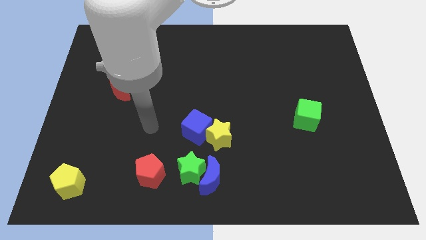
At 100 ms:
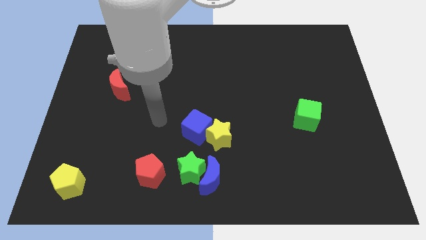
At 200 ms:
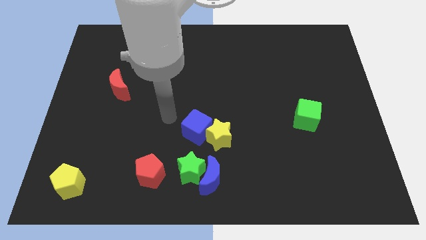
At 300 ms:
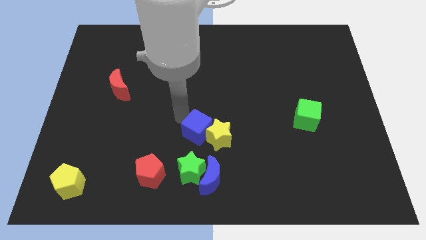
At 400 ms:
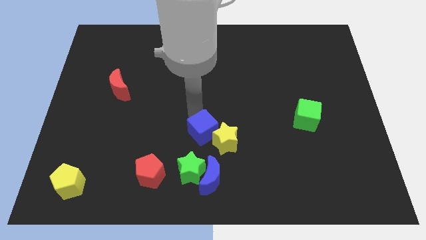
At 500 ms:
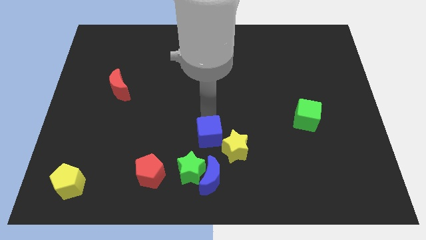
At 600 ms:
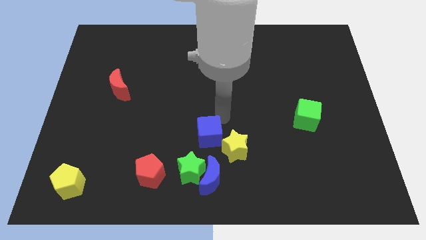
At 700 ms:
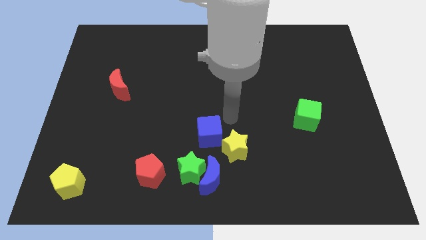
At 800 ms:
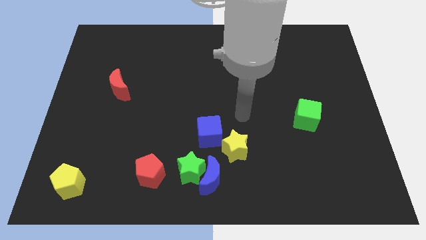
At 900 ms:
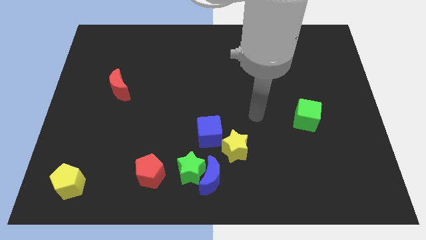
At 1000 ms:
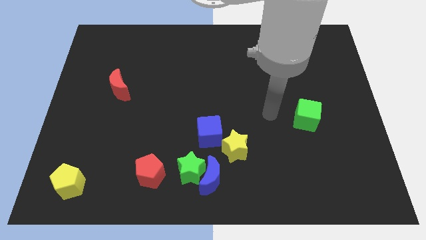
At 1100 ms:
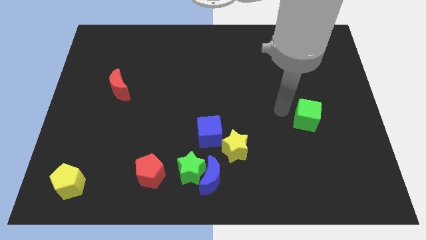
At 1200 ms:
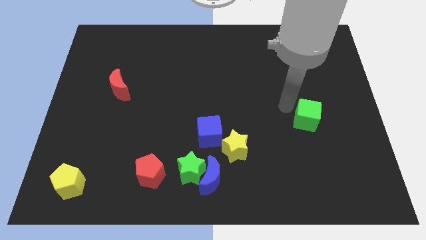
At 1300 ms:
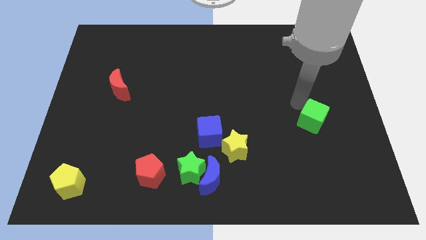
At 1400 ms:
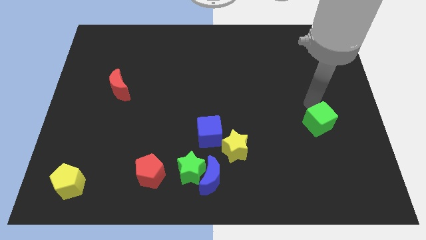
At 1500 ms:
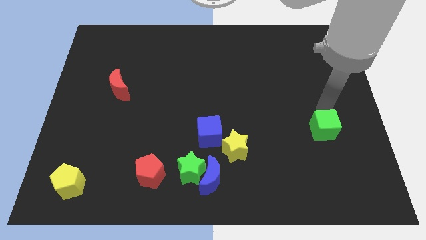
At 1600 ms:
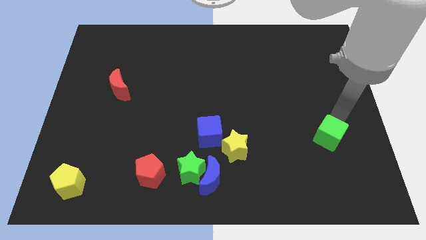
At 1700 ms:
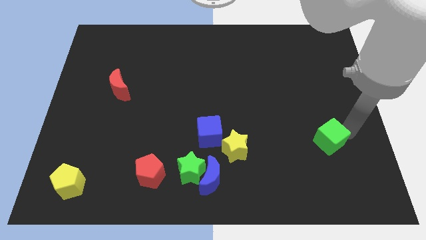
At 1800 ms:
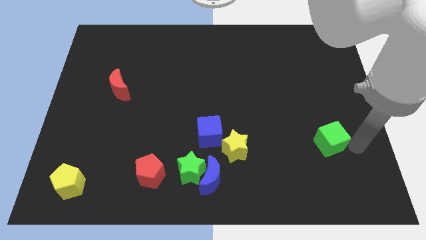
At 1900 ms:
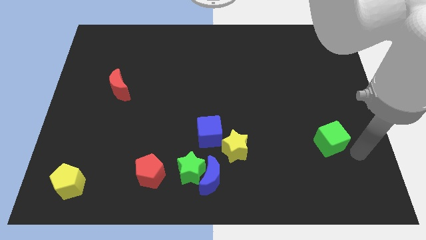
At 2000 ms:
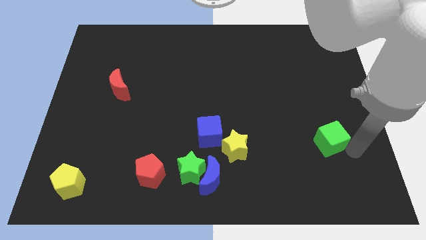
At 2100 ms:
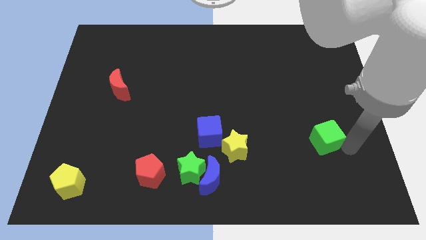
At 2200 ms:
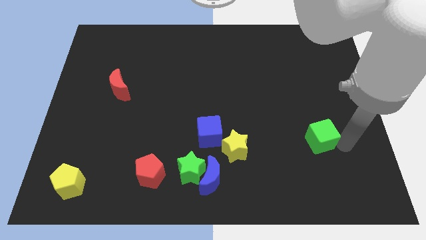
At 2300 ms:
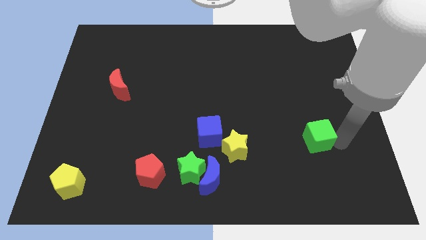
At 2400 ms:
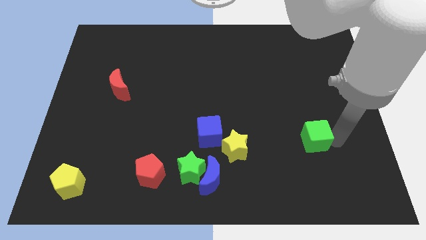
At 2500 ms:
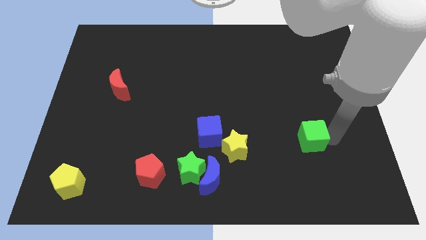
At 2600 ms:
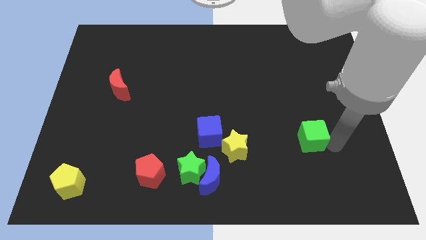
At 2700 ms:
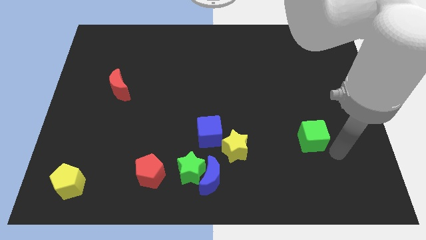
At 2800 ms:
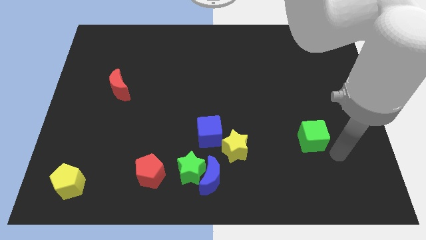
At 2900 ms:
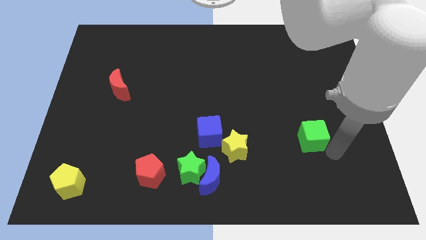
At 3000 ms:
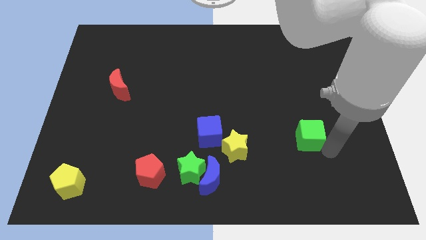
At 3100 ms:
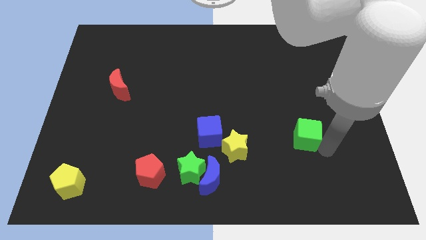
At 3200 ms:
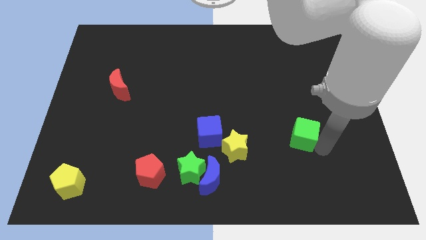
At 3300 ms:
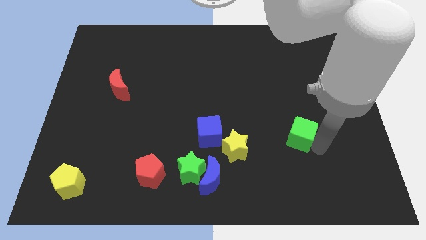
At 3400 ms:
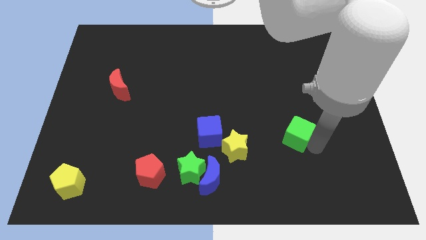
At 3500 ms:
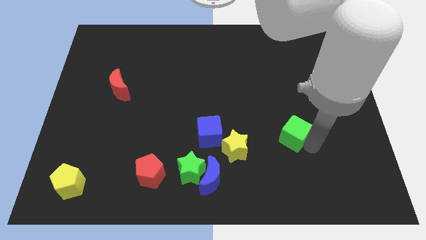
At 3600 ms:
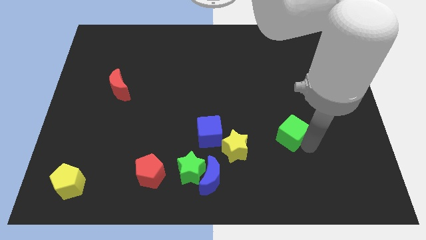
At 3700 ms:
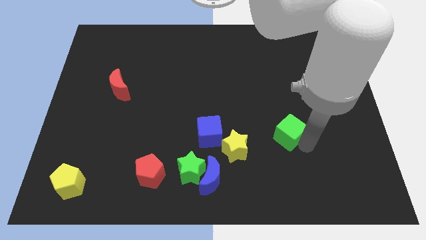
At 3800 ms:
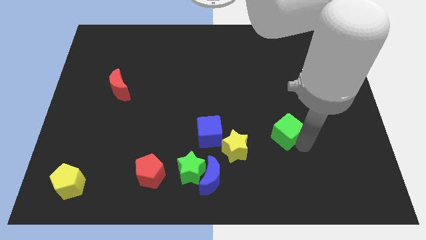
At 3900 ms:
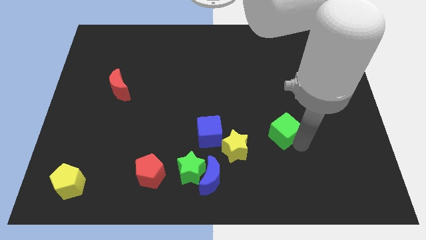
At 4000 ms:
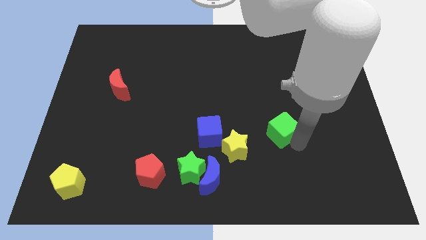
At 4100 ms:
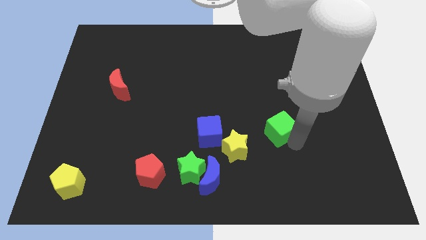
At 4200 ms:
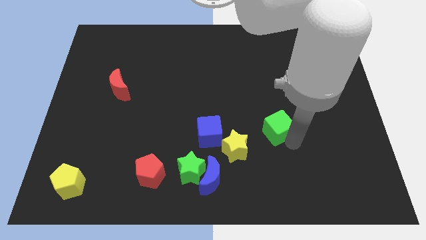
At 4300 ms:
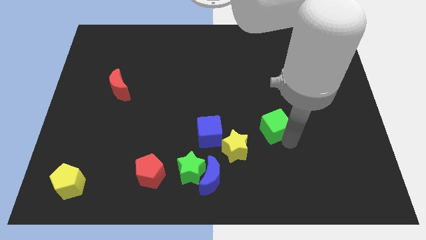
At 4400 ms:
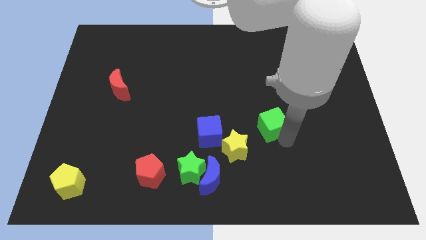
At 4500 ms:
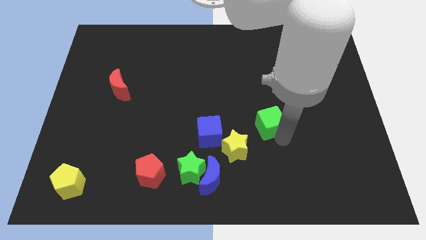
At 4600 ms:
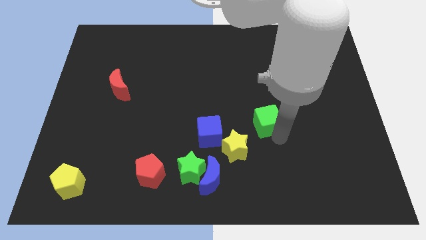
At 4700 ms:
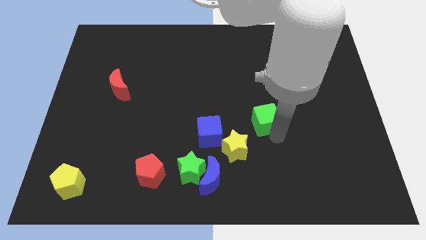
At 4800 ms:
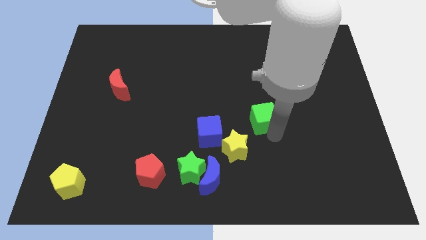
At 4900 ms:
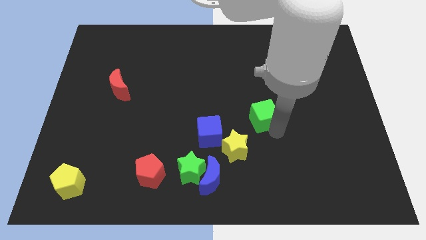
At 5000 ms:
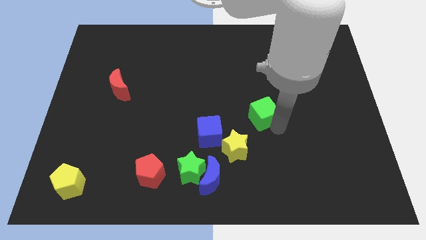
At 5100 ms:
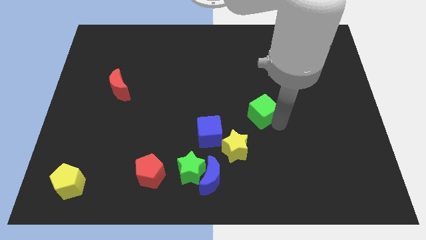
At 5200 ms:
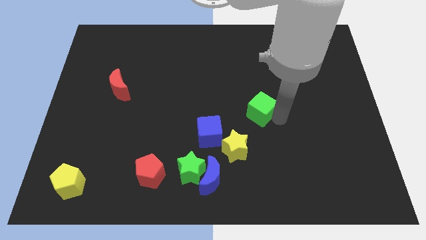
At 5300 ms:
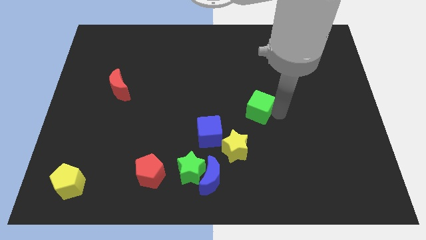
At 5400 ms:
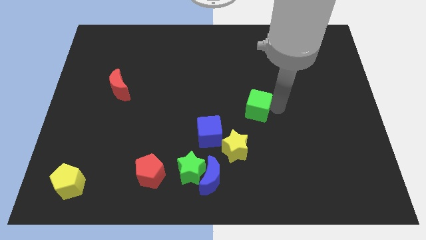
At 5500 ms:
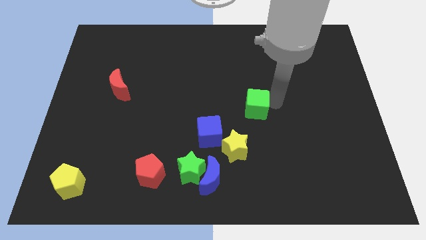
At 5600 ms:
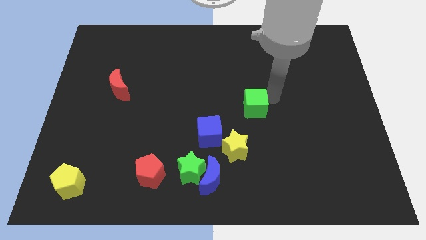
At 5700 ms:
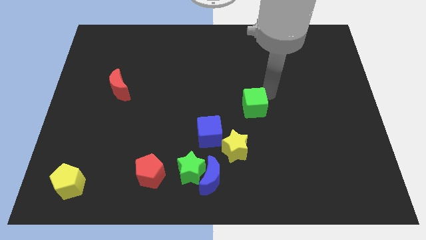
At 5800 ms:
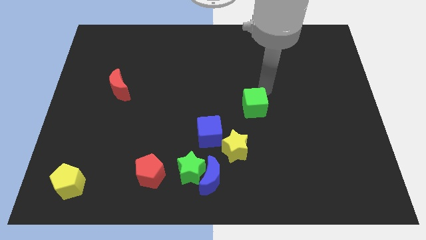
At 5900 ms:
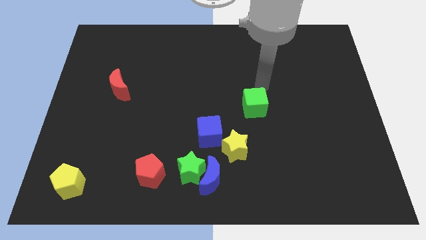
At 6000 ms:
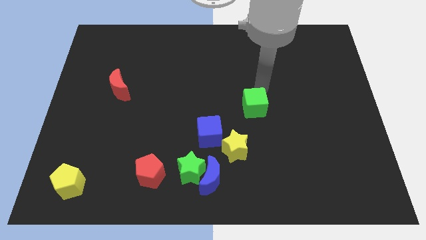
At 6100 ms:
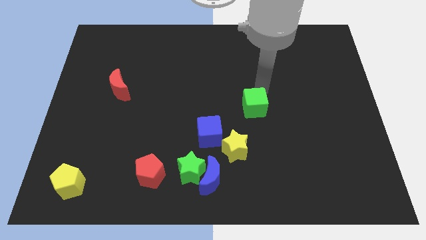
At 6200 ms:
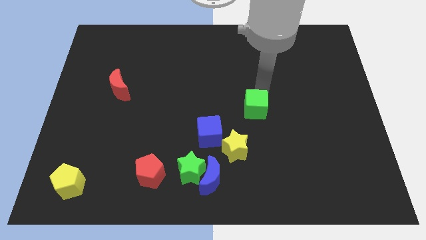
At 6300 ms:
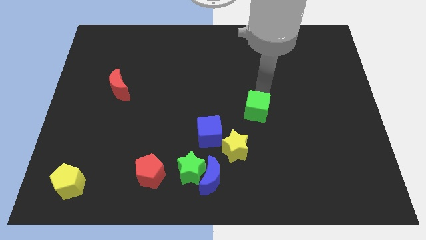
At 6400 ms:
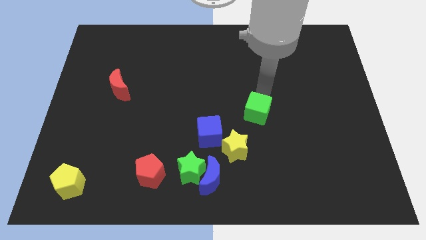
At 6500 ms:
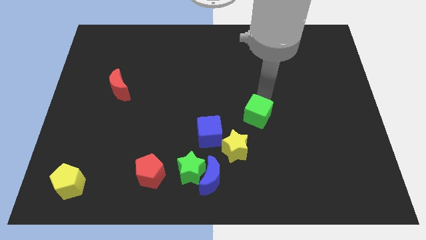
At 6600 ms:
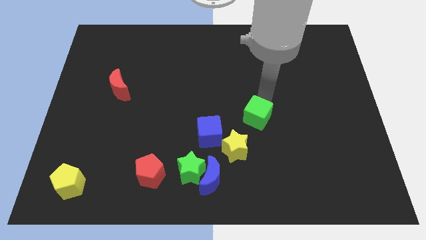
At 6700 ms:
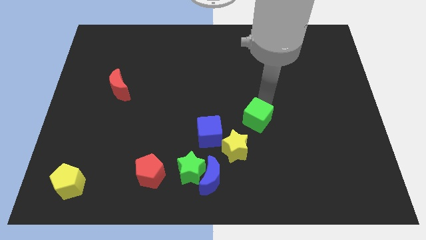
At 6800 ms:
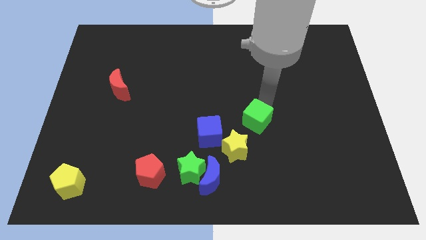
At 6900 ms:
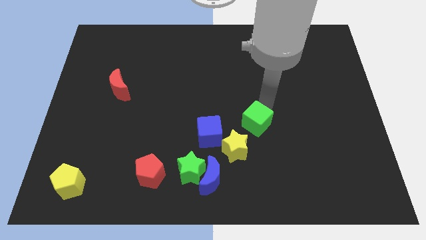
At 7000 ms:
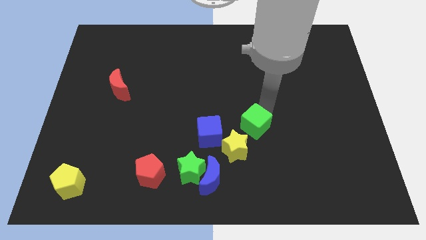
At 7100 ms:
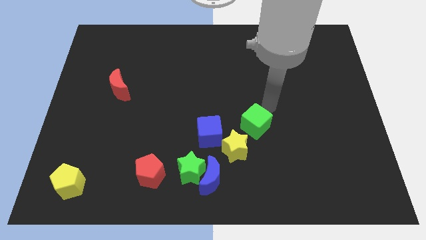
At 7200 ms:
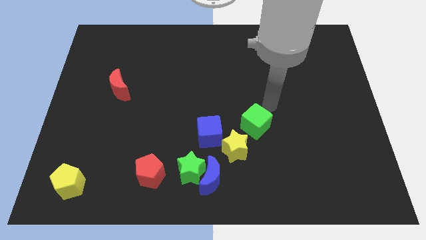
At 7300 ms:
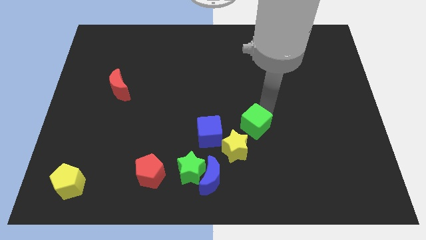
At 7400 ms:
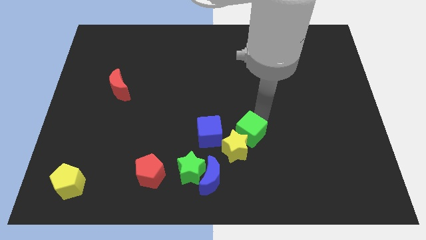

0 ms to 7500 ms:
put the green cube close to the yellow star
